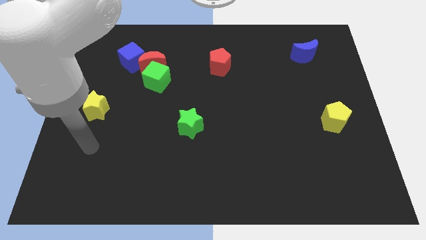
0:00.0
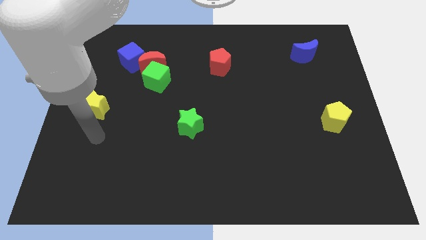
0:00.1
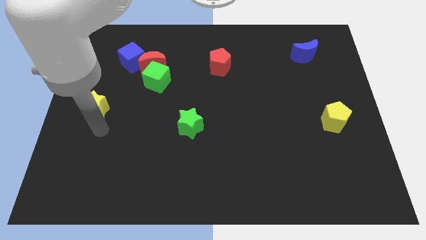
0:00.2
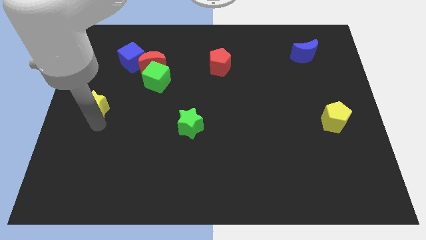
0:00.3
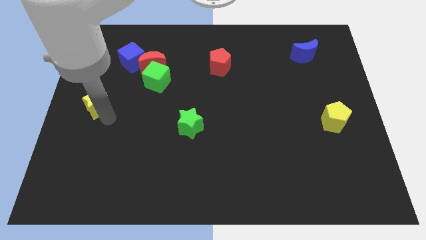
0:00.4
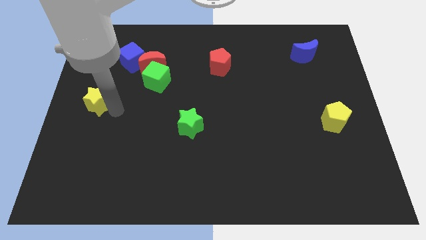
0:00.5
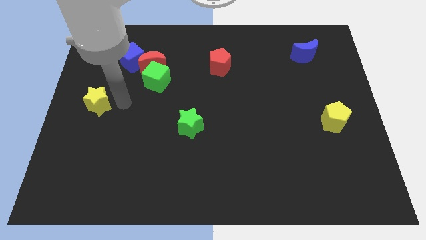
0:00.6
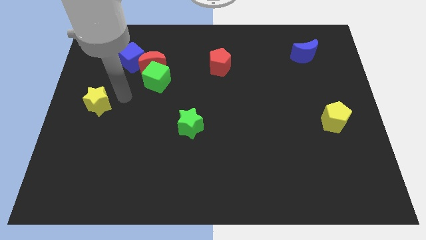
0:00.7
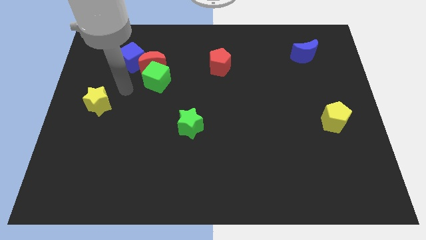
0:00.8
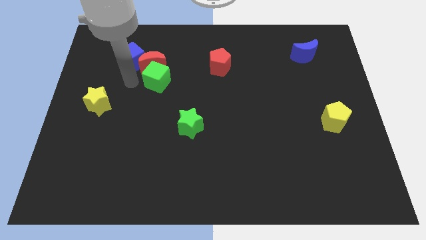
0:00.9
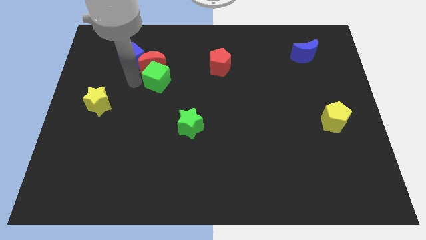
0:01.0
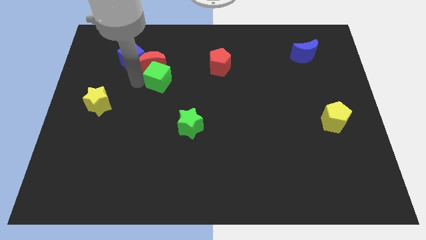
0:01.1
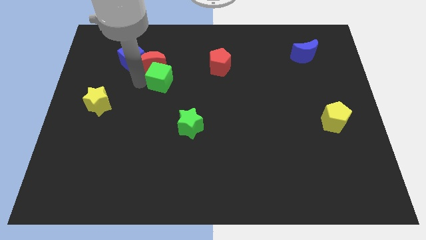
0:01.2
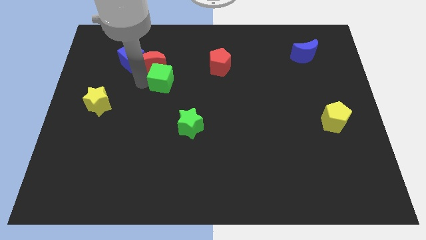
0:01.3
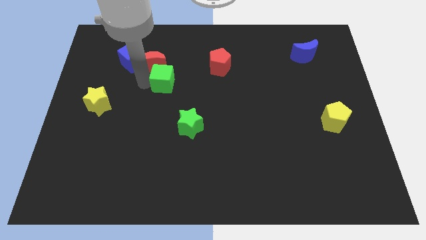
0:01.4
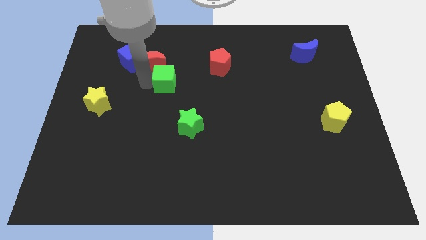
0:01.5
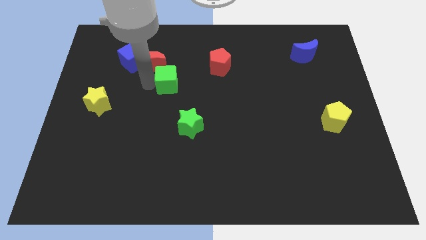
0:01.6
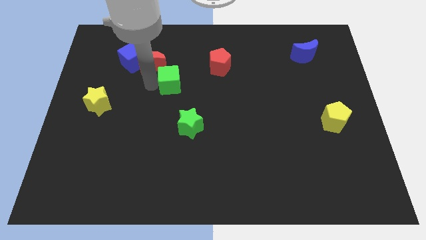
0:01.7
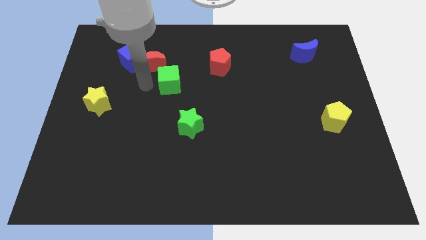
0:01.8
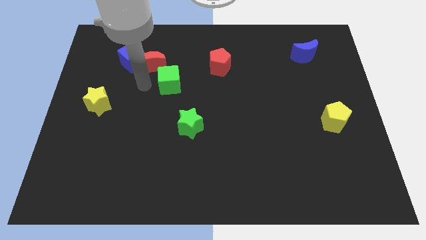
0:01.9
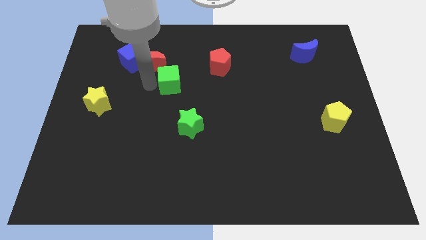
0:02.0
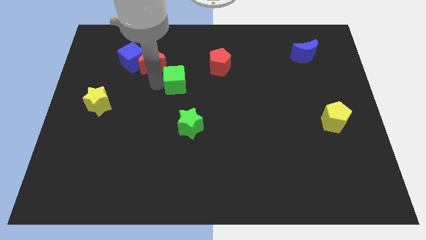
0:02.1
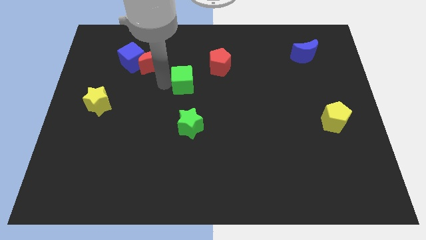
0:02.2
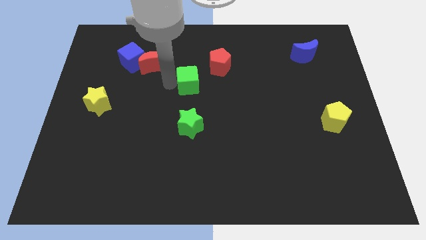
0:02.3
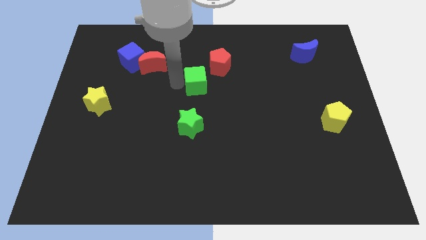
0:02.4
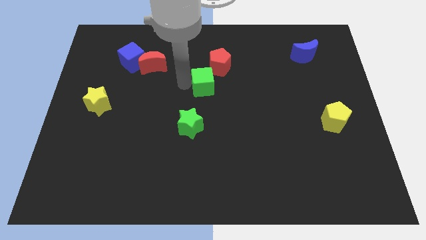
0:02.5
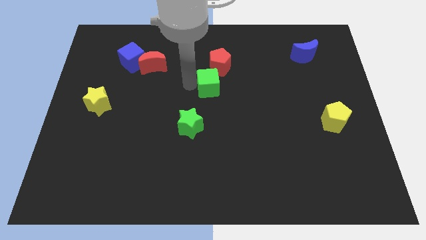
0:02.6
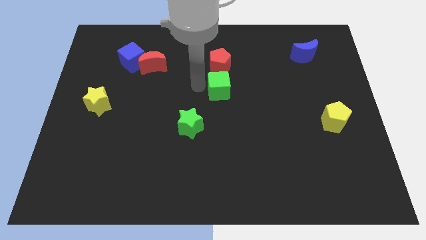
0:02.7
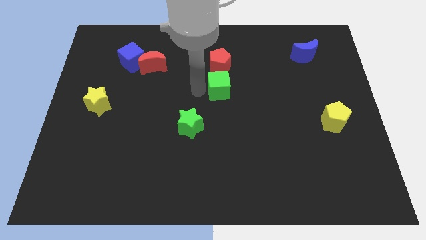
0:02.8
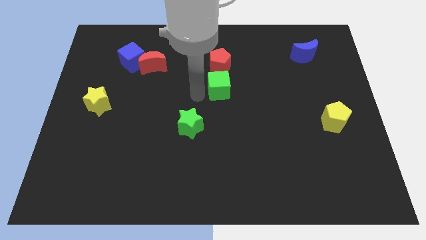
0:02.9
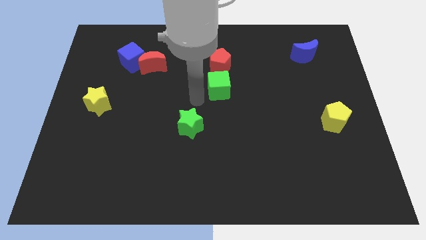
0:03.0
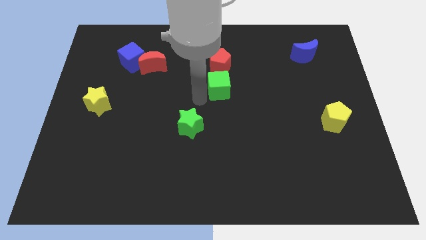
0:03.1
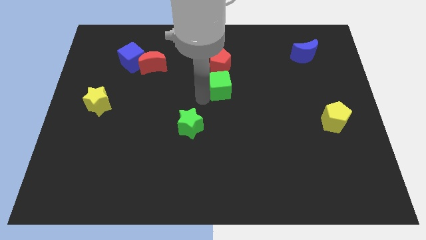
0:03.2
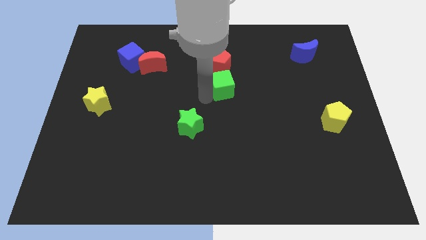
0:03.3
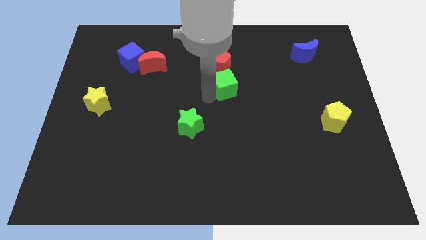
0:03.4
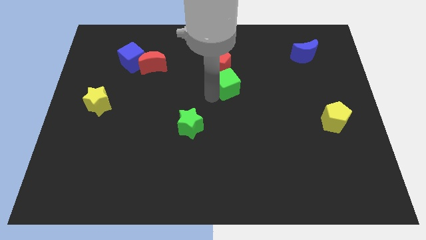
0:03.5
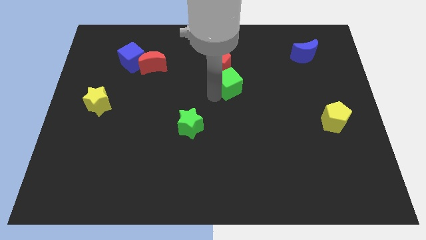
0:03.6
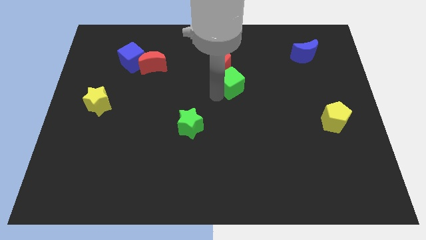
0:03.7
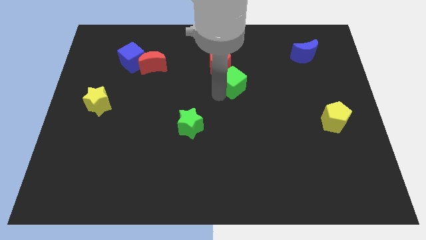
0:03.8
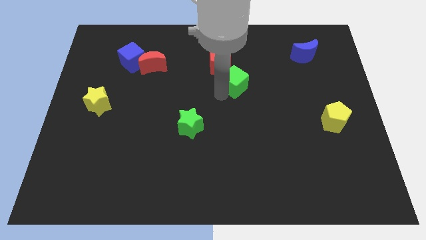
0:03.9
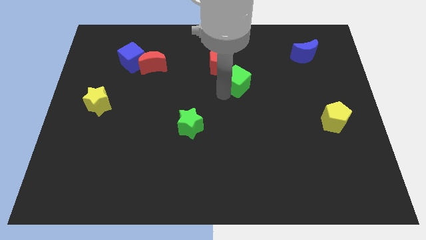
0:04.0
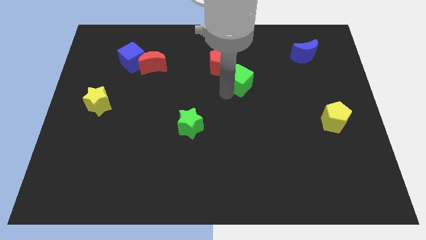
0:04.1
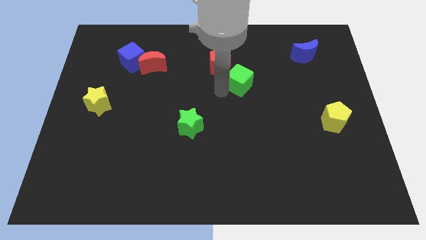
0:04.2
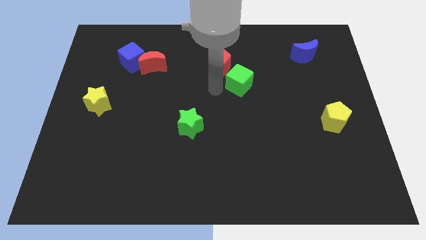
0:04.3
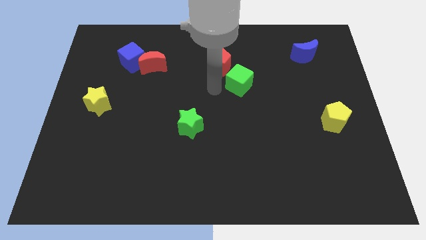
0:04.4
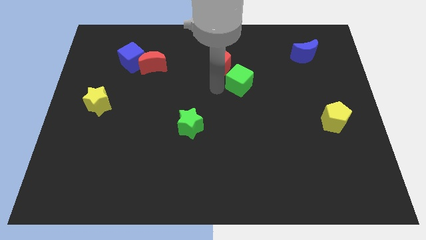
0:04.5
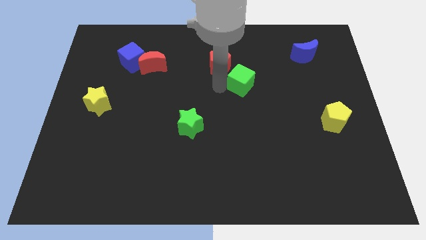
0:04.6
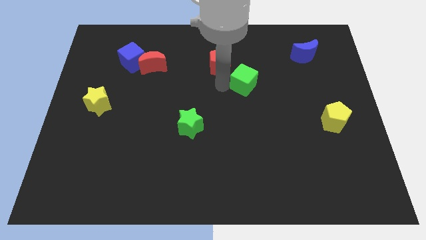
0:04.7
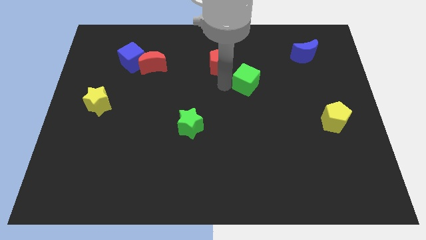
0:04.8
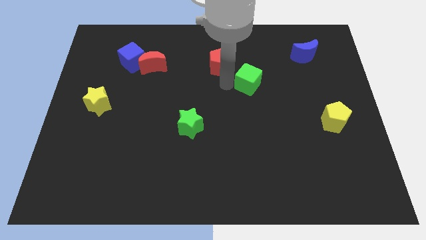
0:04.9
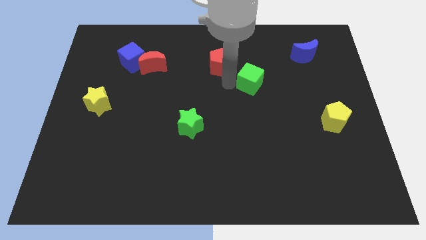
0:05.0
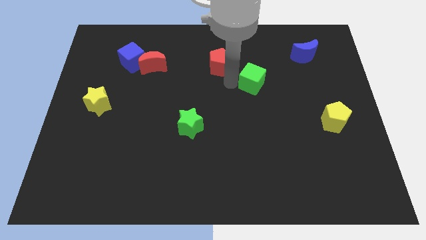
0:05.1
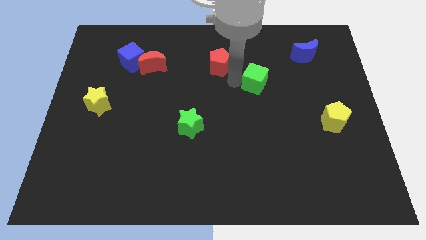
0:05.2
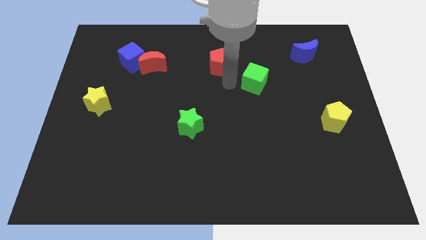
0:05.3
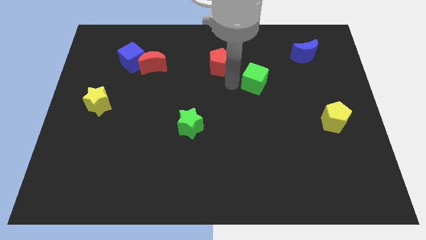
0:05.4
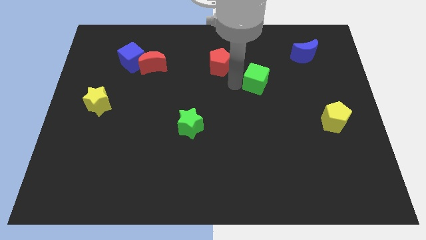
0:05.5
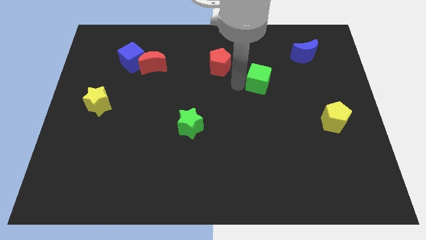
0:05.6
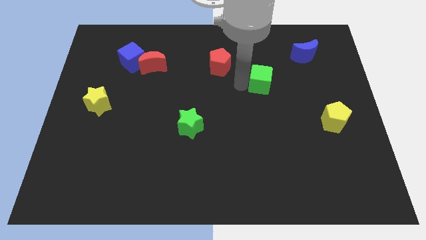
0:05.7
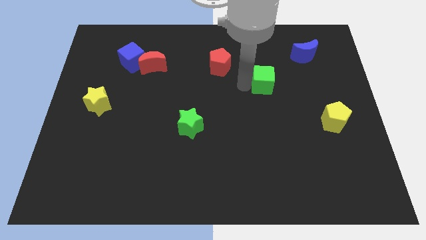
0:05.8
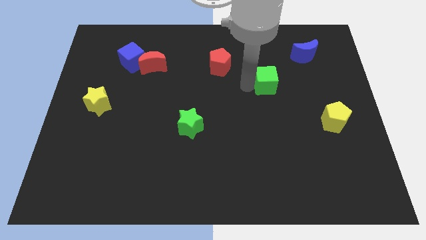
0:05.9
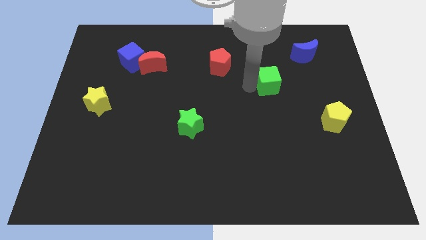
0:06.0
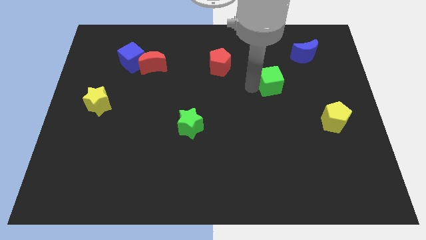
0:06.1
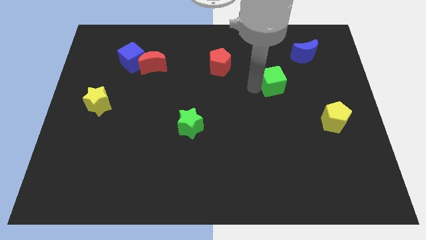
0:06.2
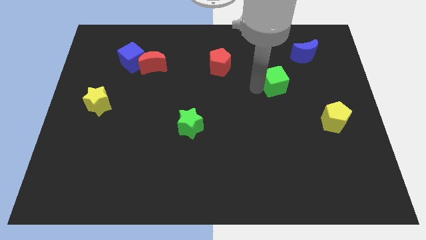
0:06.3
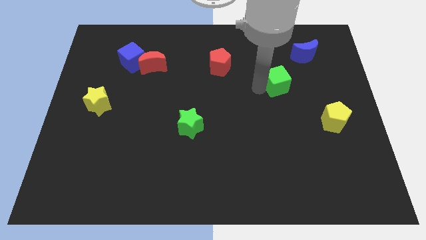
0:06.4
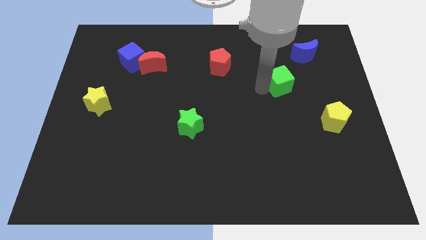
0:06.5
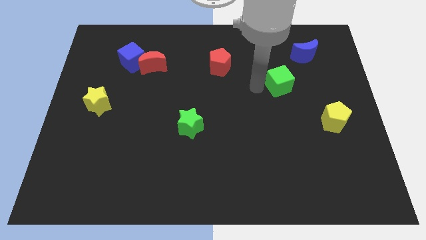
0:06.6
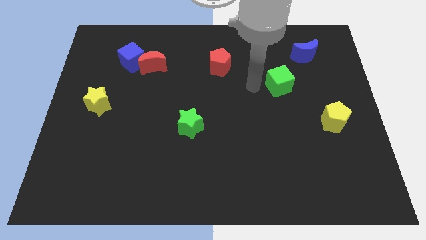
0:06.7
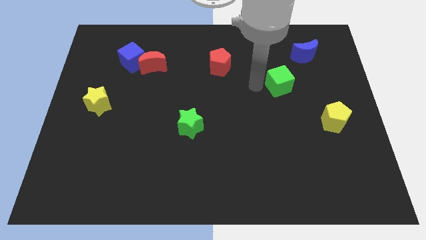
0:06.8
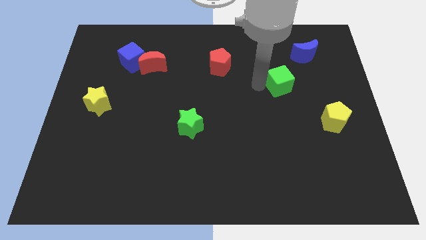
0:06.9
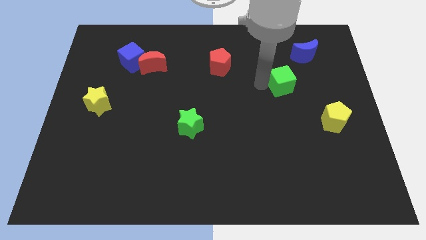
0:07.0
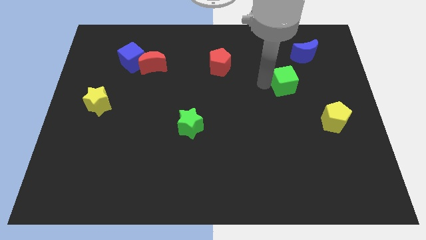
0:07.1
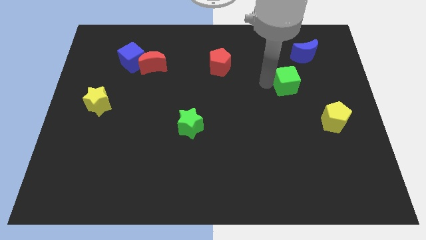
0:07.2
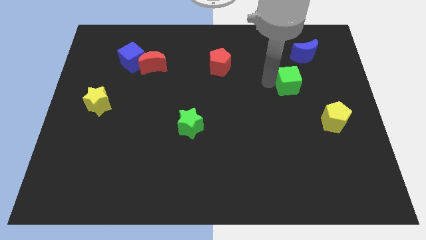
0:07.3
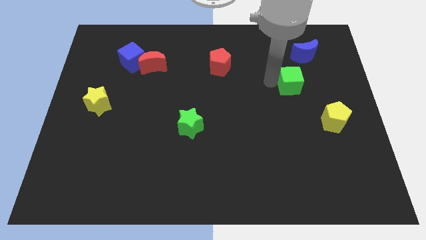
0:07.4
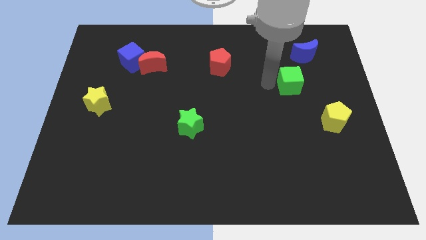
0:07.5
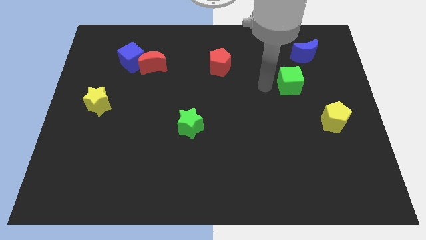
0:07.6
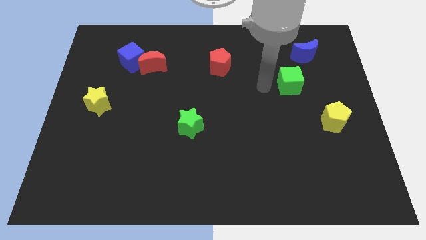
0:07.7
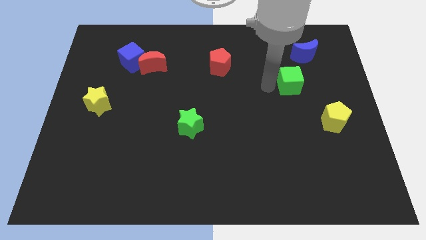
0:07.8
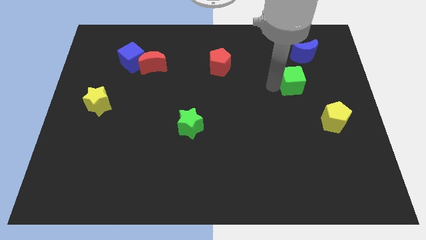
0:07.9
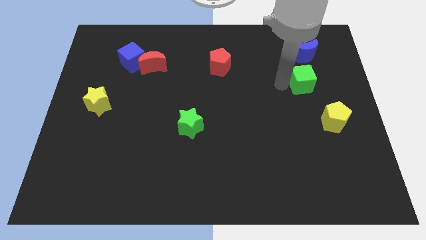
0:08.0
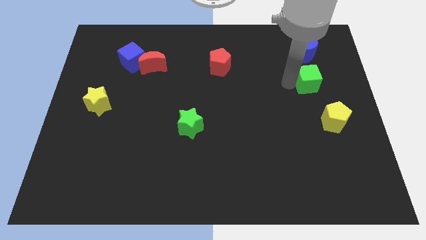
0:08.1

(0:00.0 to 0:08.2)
move the green cube to the top of the yellow pentagon
